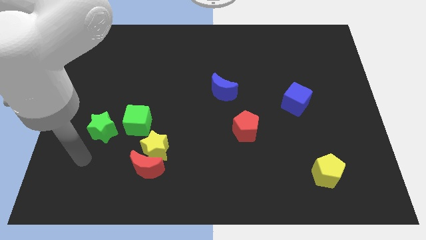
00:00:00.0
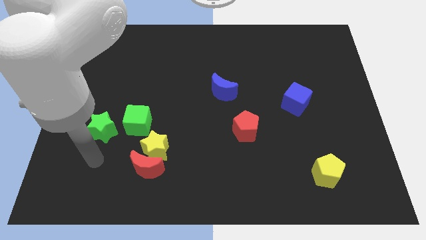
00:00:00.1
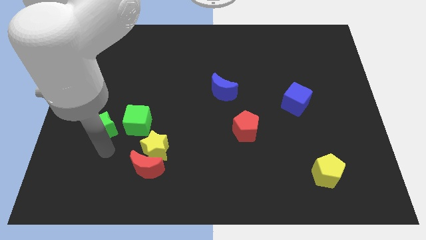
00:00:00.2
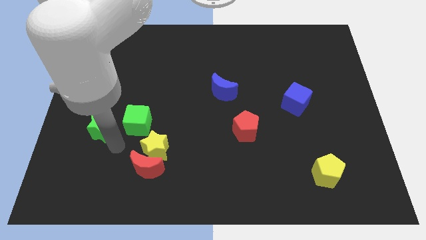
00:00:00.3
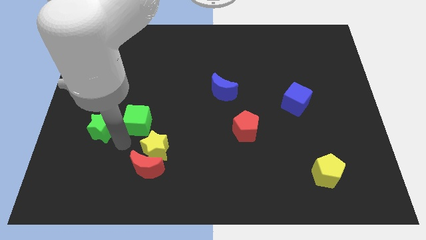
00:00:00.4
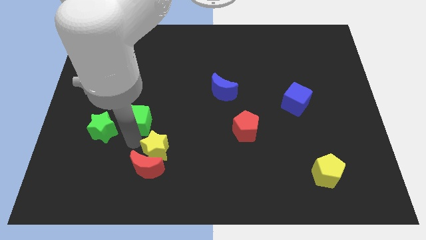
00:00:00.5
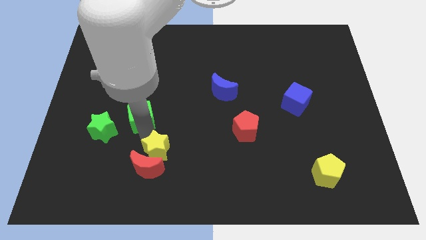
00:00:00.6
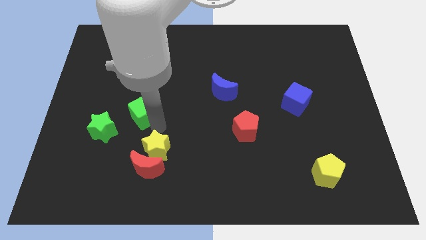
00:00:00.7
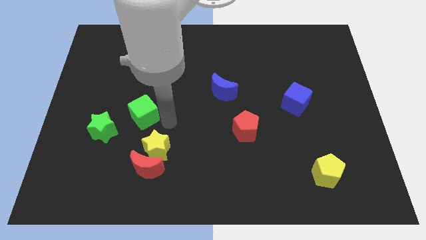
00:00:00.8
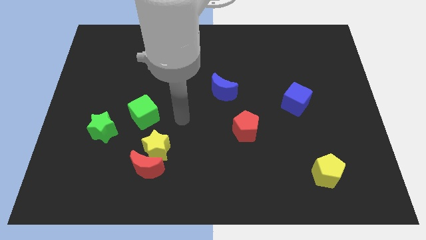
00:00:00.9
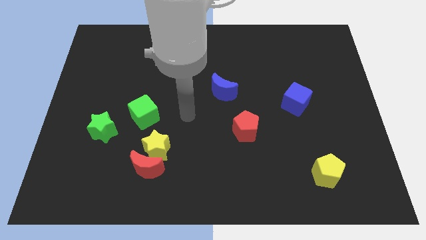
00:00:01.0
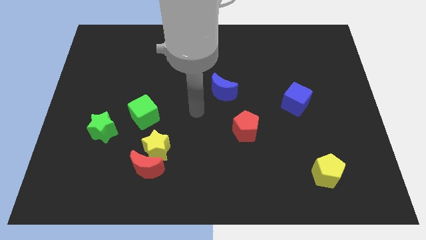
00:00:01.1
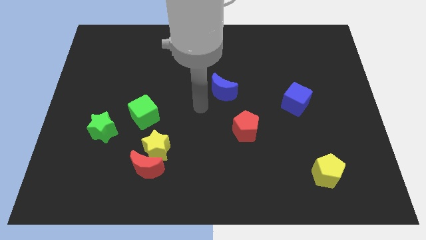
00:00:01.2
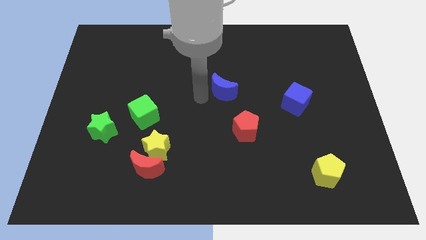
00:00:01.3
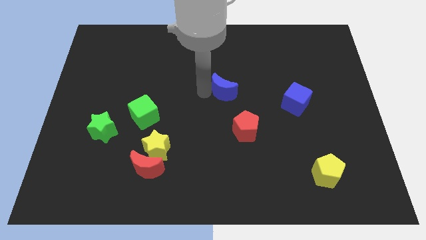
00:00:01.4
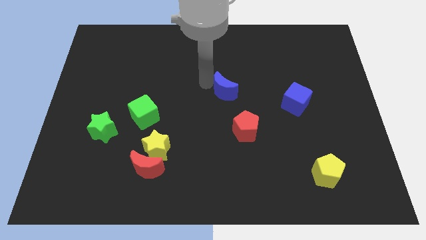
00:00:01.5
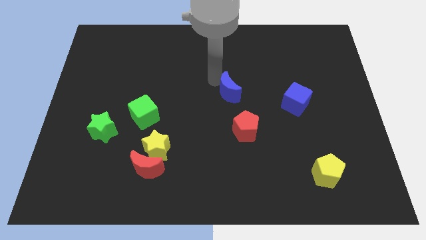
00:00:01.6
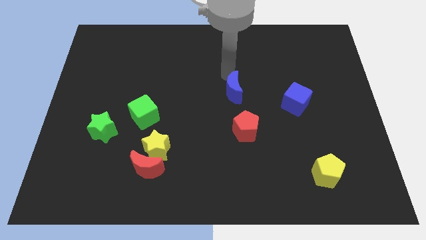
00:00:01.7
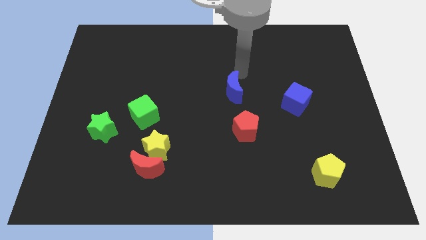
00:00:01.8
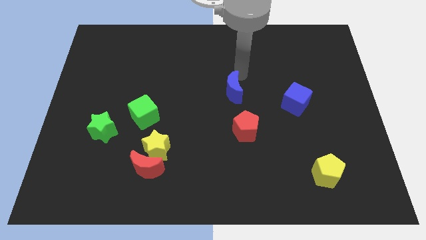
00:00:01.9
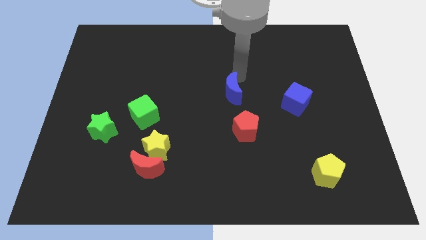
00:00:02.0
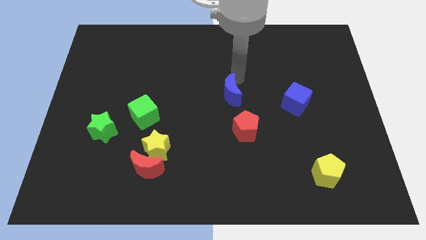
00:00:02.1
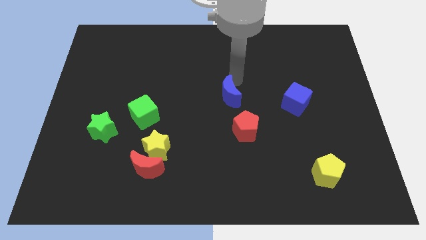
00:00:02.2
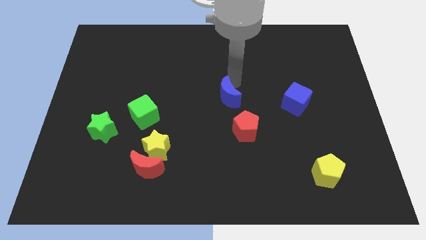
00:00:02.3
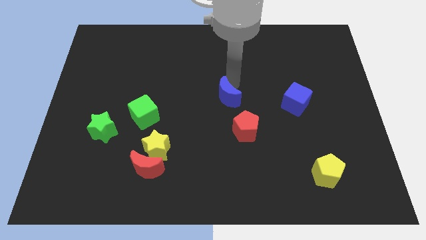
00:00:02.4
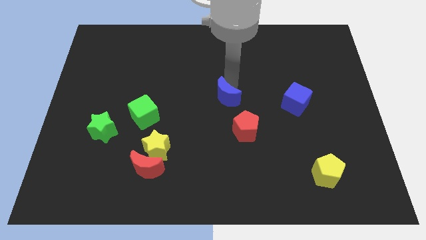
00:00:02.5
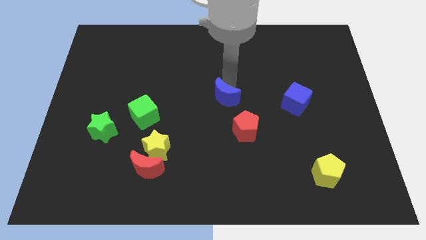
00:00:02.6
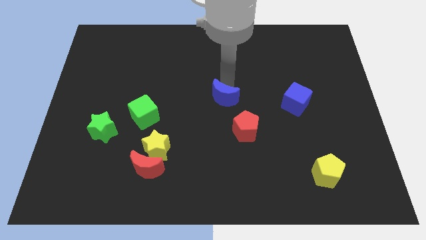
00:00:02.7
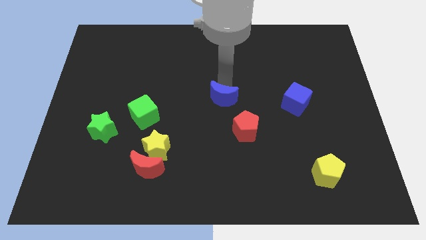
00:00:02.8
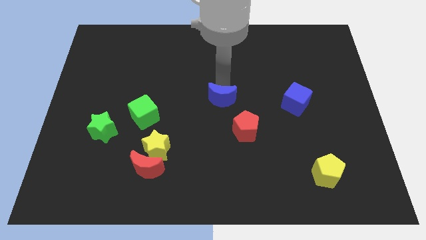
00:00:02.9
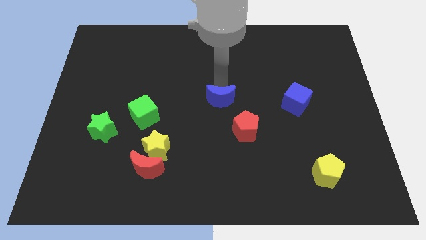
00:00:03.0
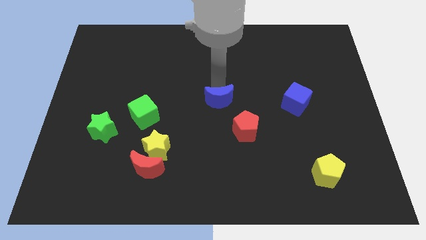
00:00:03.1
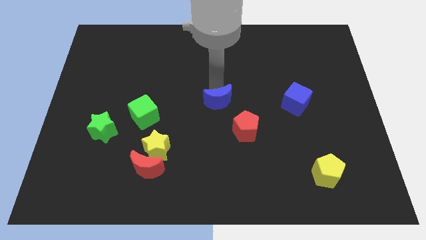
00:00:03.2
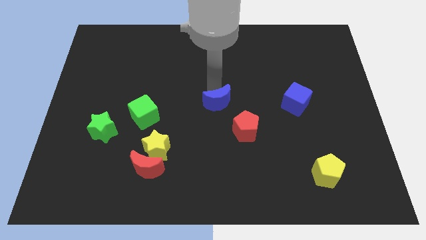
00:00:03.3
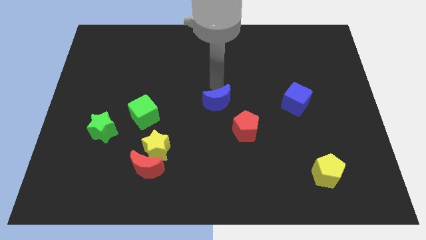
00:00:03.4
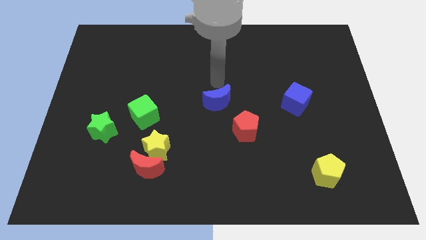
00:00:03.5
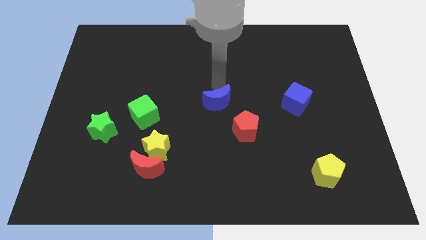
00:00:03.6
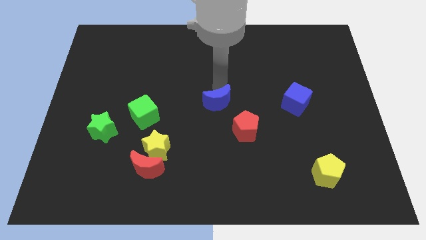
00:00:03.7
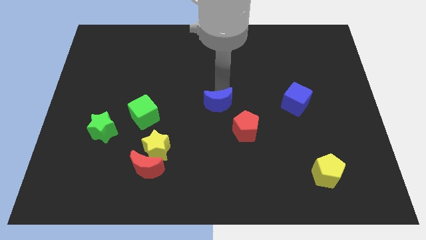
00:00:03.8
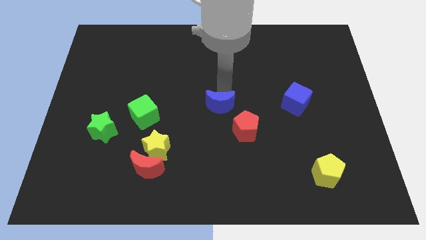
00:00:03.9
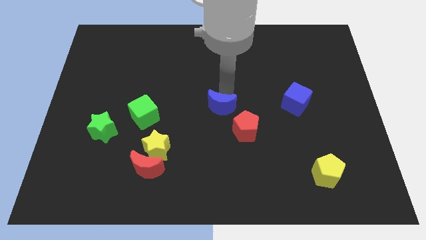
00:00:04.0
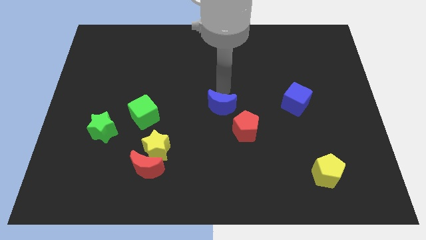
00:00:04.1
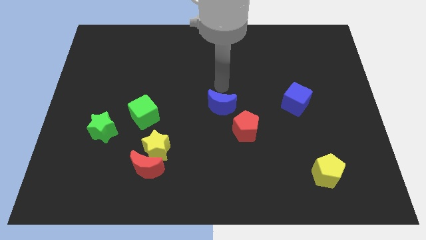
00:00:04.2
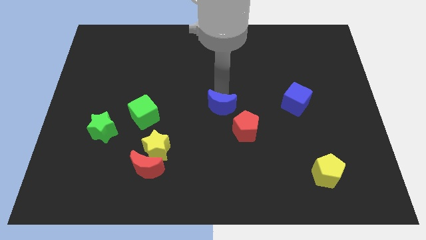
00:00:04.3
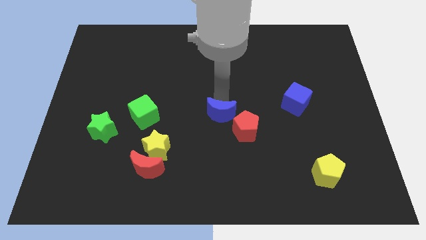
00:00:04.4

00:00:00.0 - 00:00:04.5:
push the blue moon down a little bit

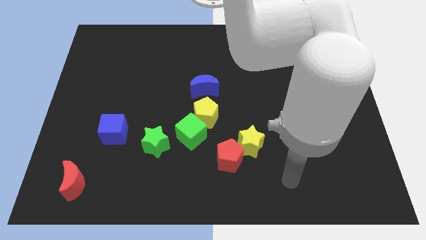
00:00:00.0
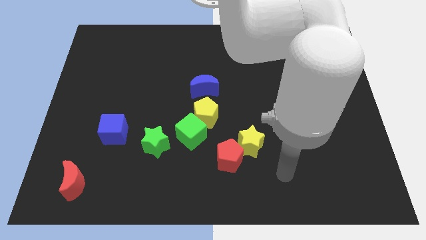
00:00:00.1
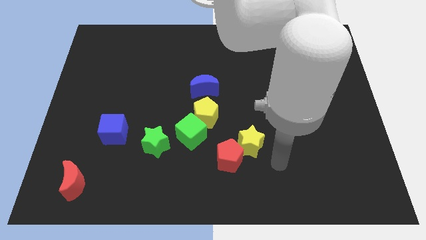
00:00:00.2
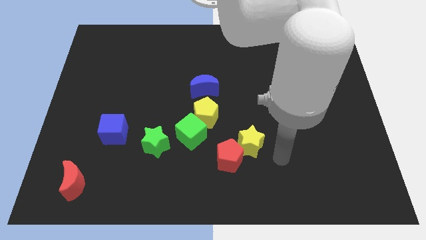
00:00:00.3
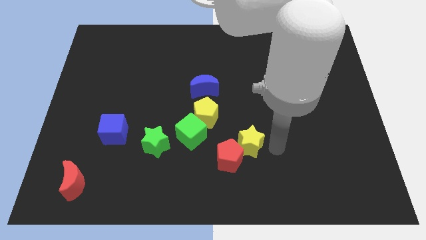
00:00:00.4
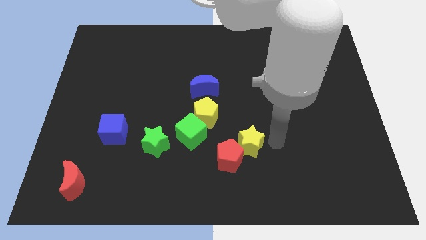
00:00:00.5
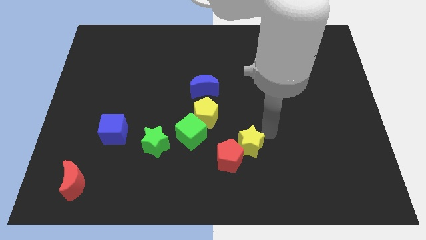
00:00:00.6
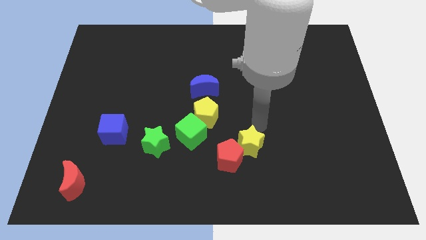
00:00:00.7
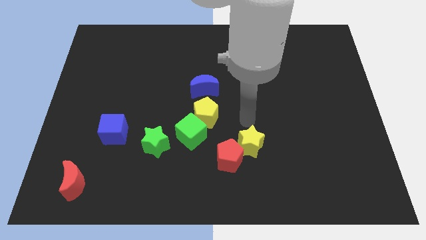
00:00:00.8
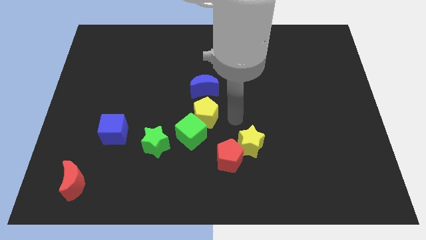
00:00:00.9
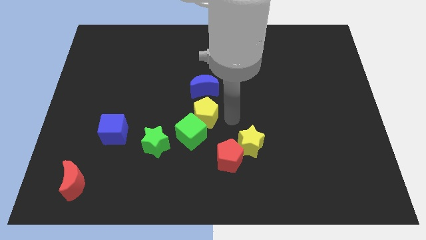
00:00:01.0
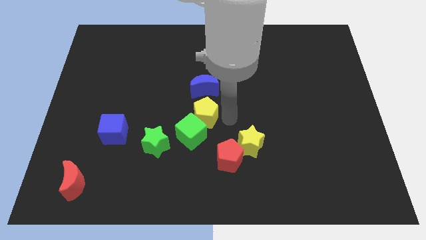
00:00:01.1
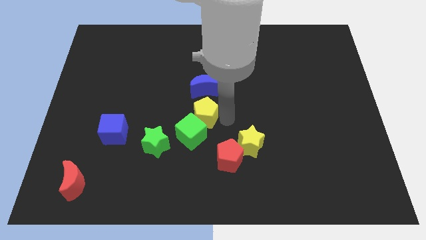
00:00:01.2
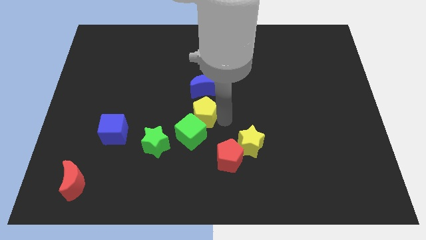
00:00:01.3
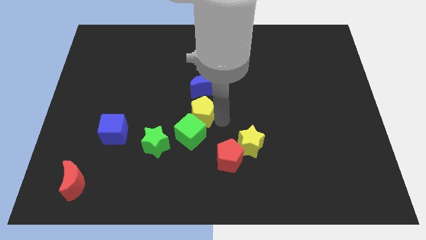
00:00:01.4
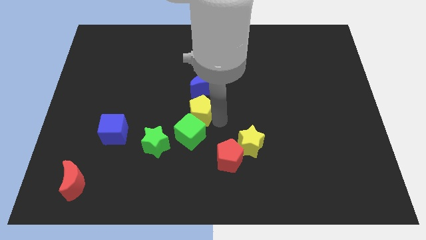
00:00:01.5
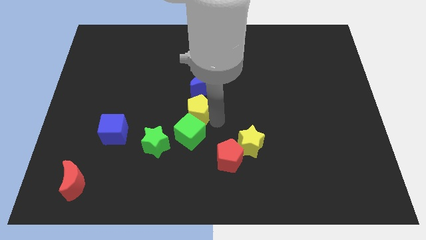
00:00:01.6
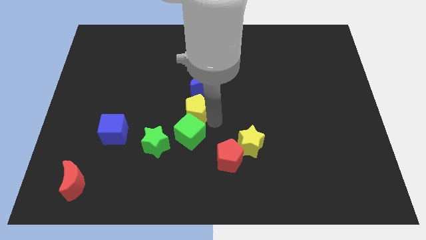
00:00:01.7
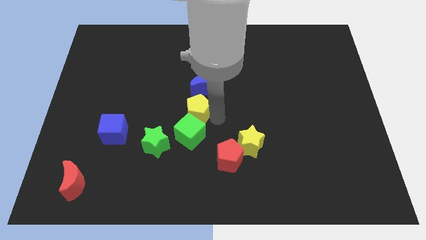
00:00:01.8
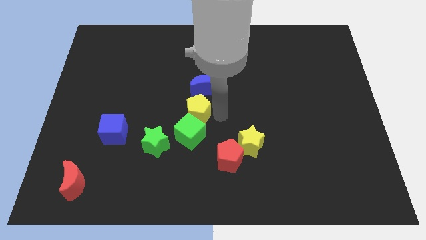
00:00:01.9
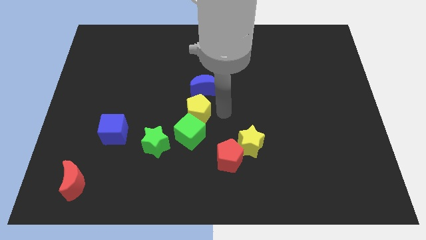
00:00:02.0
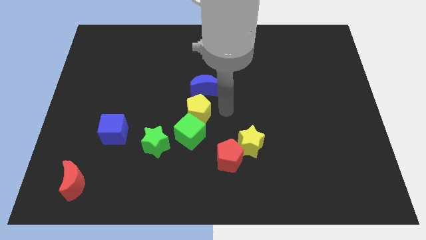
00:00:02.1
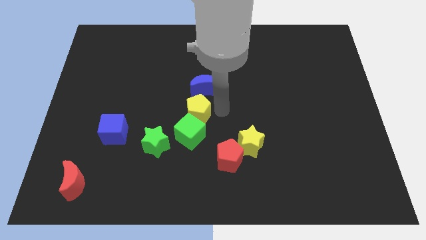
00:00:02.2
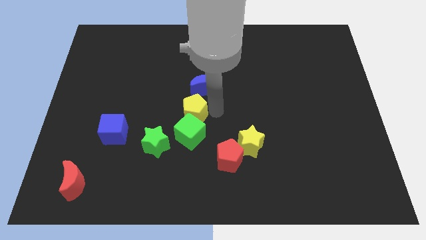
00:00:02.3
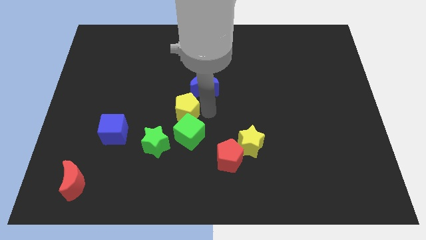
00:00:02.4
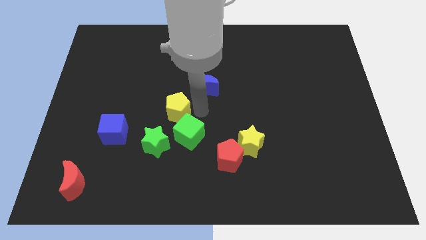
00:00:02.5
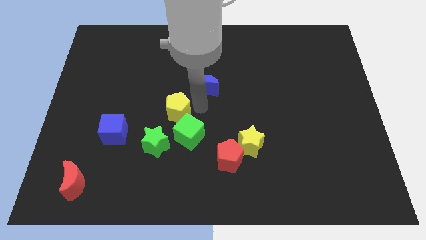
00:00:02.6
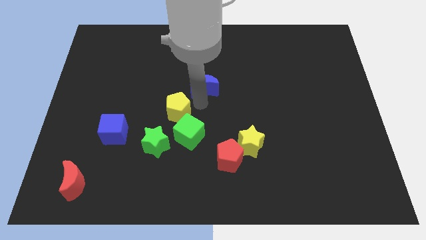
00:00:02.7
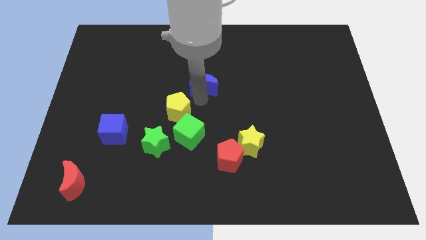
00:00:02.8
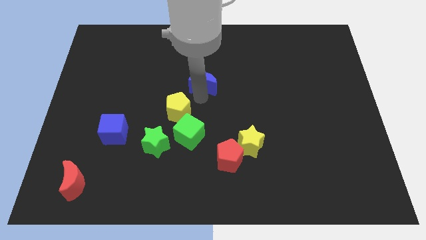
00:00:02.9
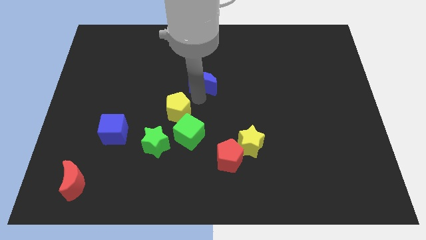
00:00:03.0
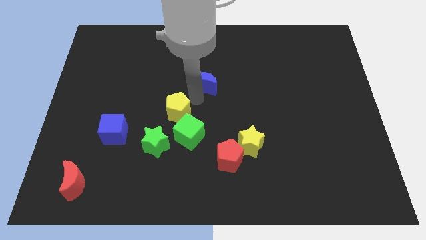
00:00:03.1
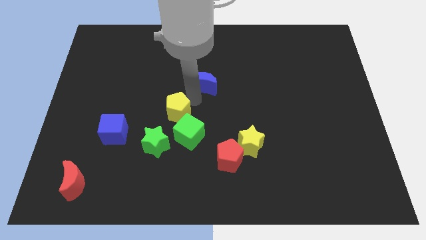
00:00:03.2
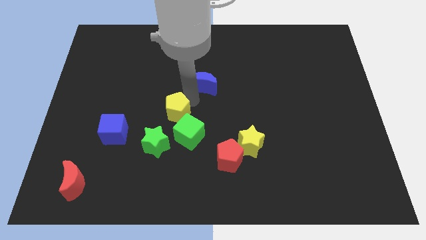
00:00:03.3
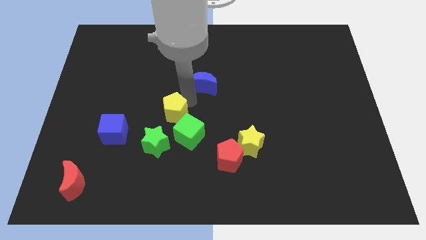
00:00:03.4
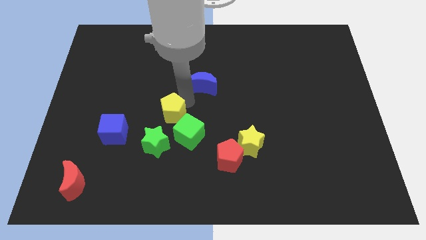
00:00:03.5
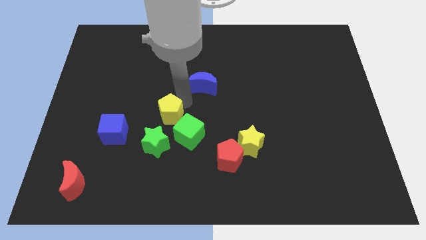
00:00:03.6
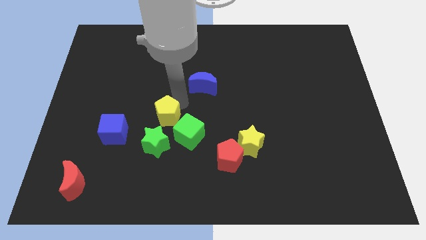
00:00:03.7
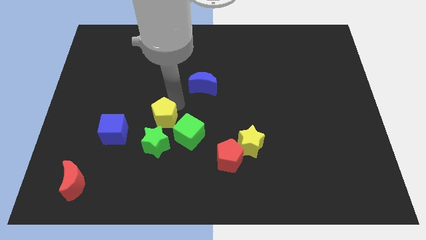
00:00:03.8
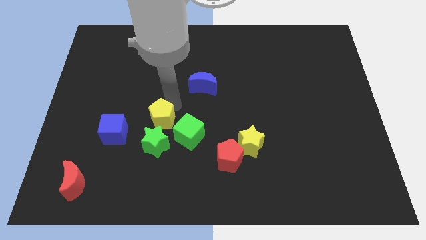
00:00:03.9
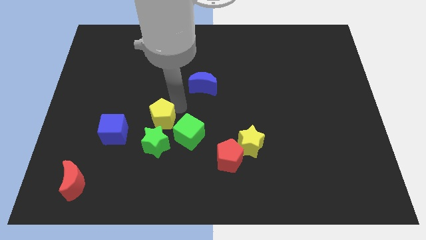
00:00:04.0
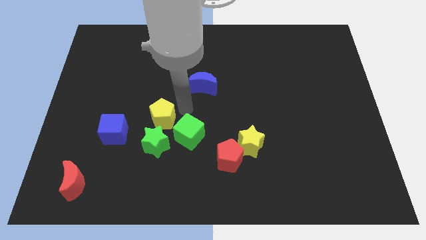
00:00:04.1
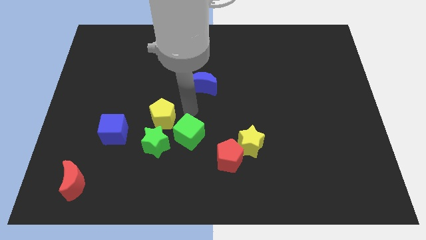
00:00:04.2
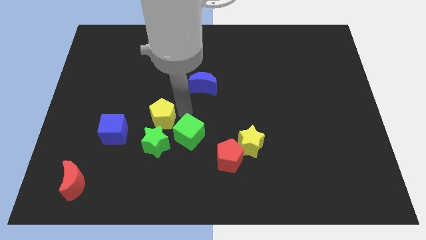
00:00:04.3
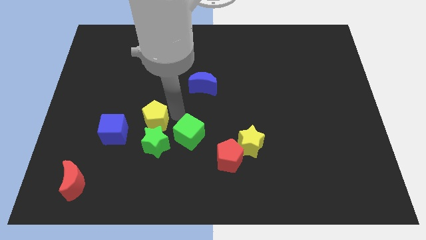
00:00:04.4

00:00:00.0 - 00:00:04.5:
slightly move the yellow pentagon diagonally downwards and left
